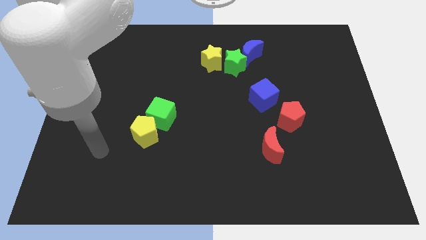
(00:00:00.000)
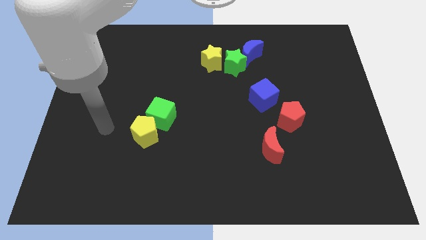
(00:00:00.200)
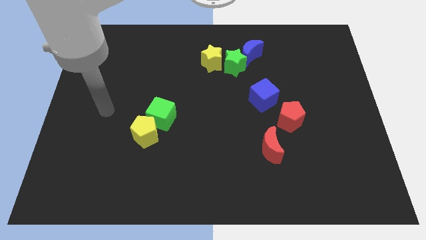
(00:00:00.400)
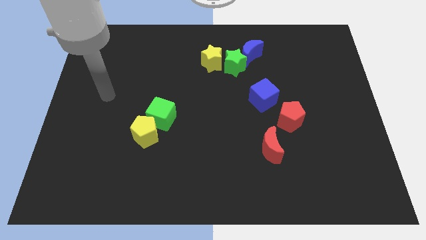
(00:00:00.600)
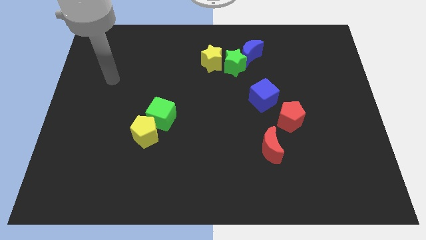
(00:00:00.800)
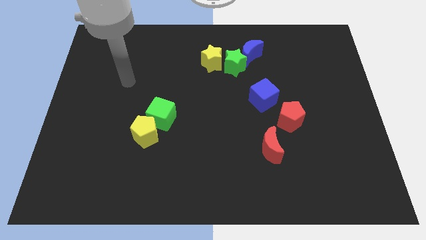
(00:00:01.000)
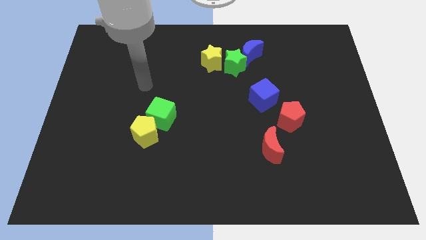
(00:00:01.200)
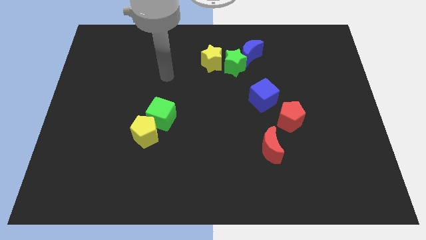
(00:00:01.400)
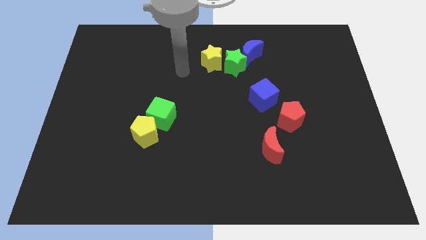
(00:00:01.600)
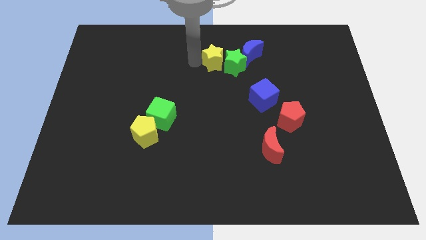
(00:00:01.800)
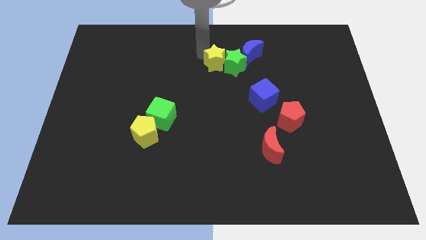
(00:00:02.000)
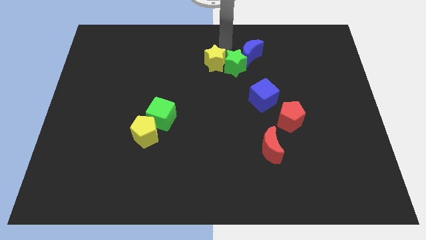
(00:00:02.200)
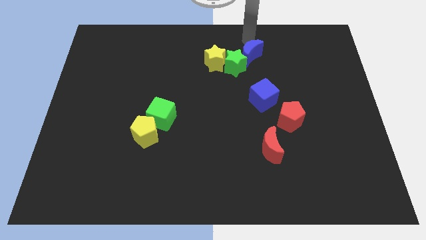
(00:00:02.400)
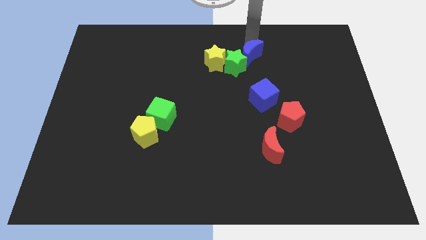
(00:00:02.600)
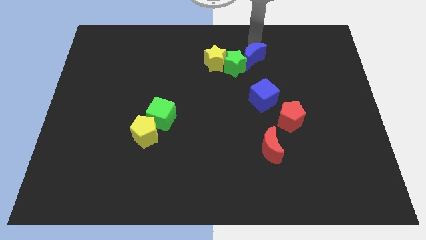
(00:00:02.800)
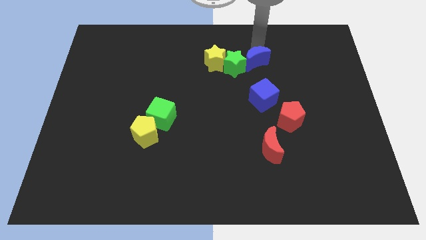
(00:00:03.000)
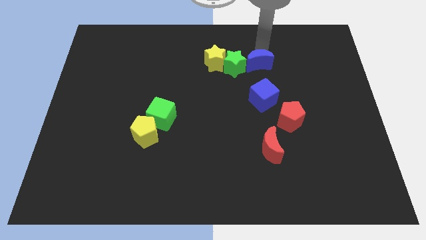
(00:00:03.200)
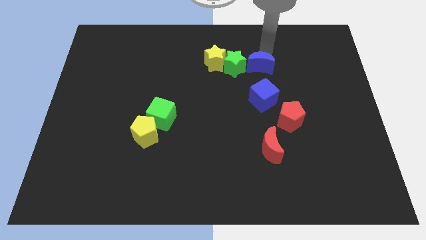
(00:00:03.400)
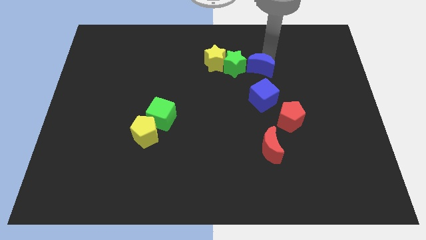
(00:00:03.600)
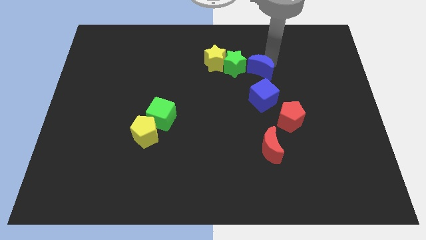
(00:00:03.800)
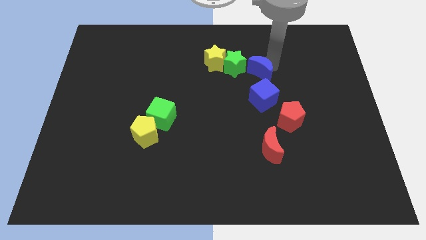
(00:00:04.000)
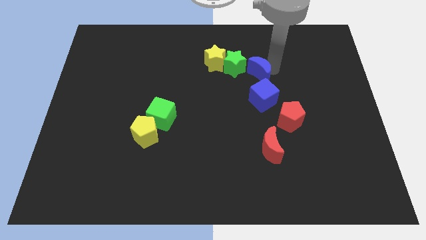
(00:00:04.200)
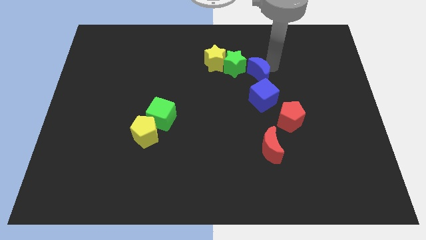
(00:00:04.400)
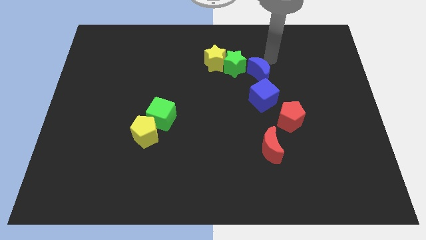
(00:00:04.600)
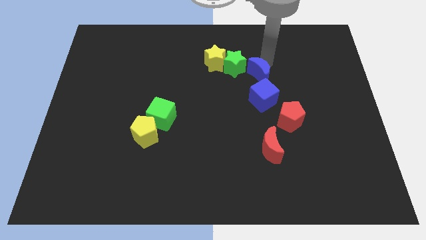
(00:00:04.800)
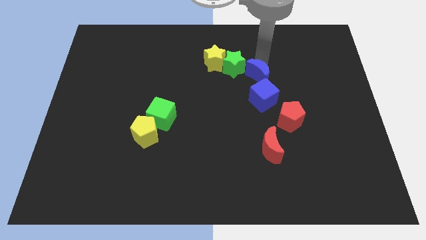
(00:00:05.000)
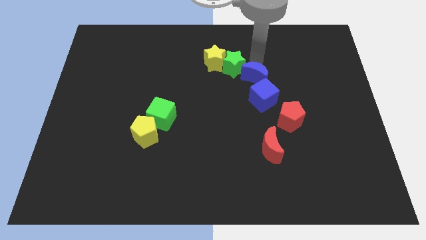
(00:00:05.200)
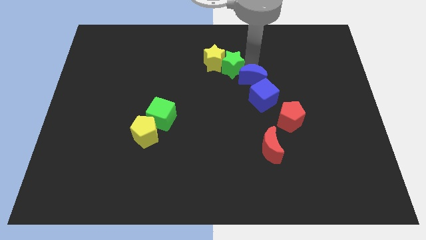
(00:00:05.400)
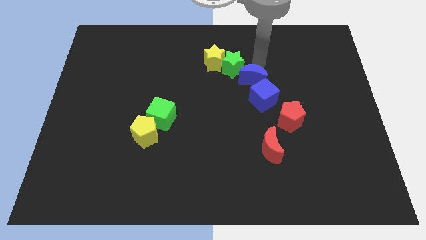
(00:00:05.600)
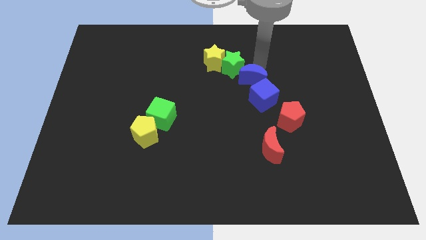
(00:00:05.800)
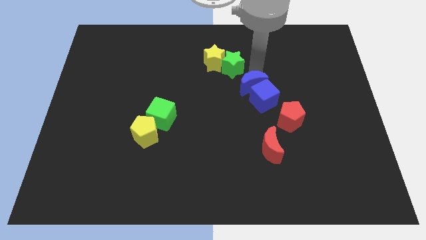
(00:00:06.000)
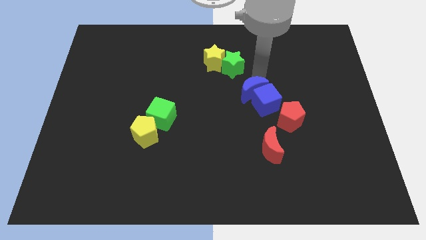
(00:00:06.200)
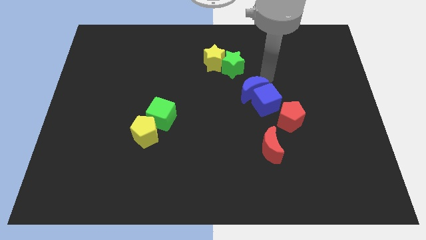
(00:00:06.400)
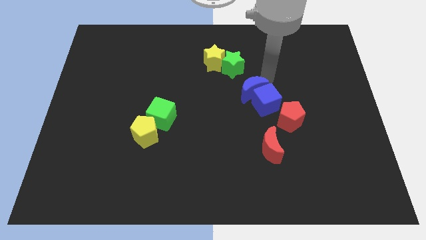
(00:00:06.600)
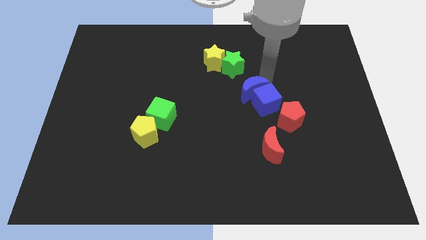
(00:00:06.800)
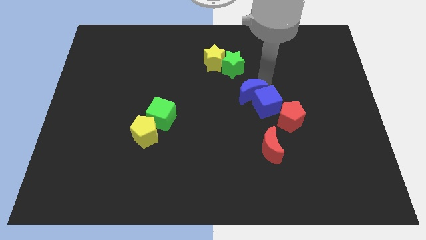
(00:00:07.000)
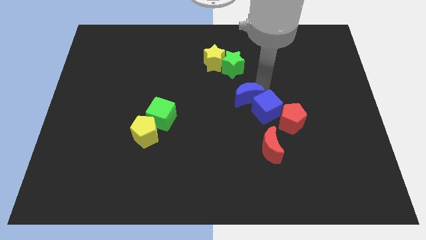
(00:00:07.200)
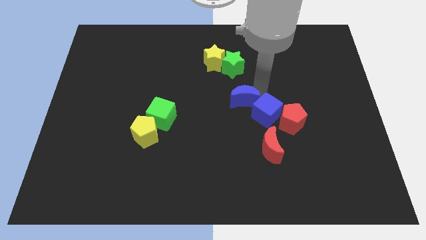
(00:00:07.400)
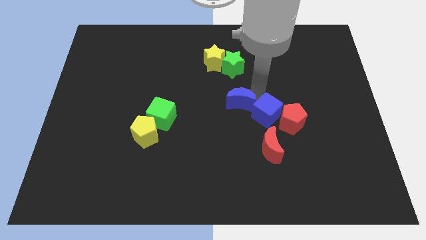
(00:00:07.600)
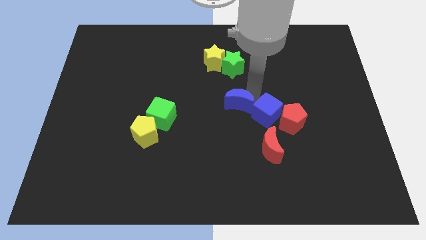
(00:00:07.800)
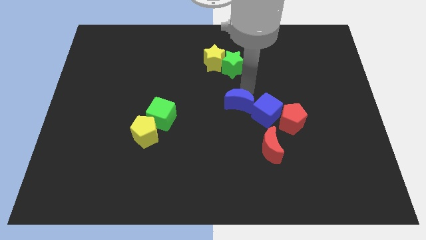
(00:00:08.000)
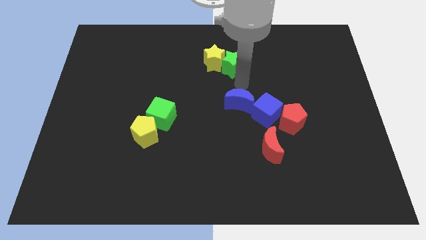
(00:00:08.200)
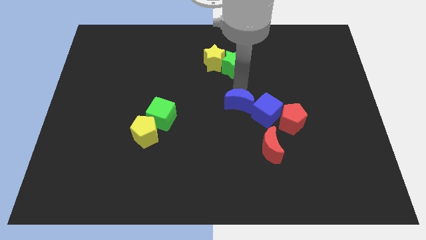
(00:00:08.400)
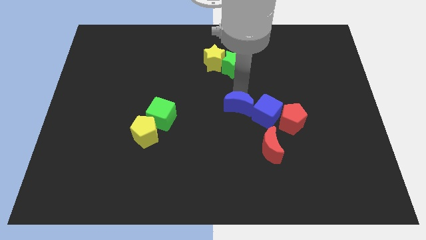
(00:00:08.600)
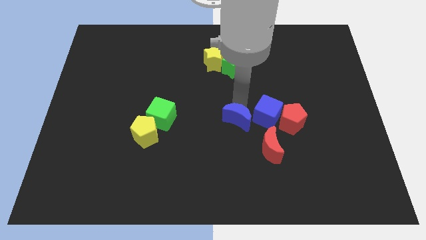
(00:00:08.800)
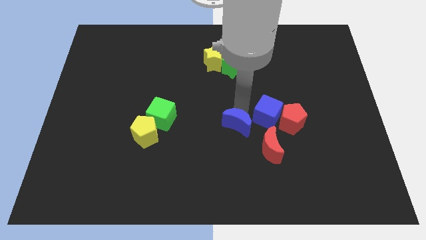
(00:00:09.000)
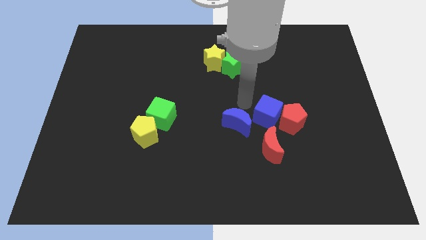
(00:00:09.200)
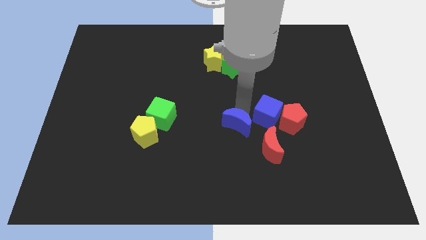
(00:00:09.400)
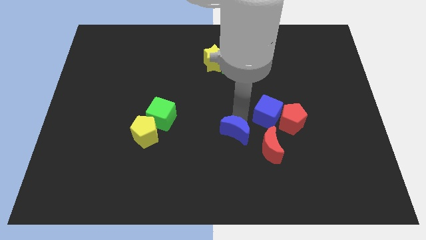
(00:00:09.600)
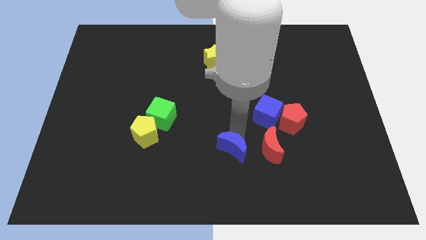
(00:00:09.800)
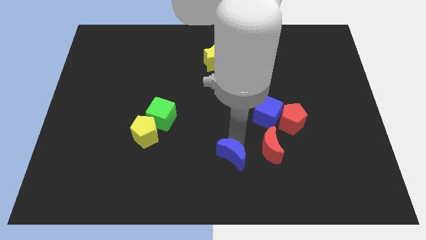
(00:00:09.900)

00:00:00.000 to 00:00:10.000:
push the blue moon to the bottom

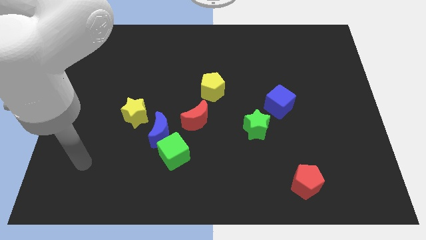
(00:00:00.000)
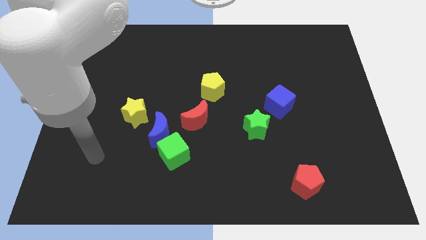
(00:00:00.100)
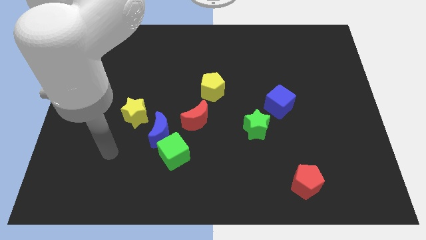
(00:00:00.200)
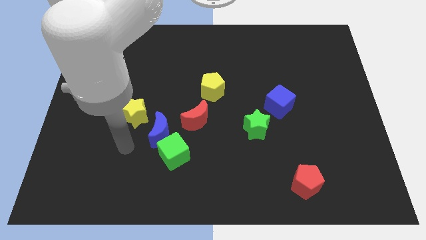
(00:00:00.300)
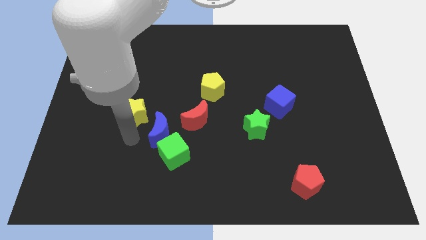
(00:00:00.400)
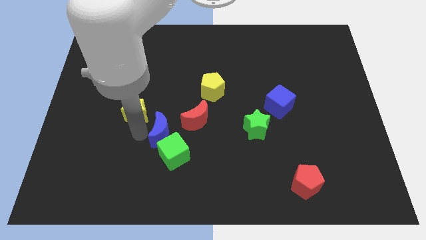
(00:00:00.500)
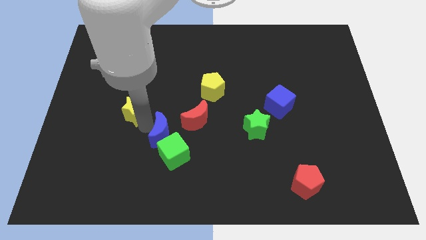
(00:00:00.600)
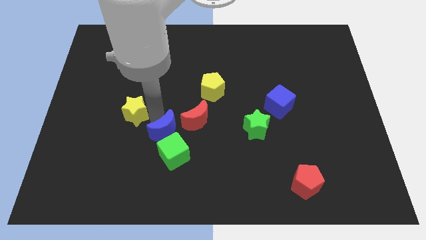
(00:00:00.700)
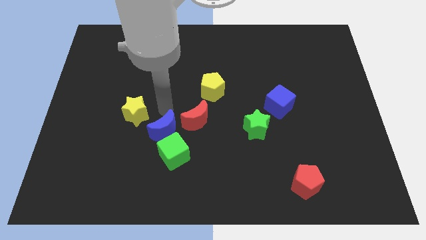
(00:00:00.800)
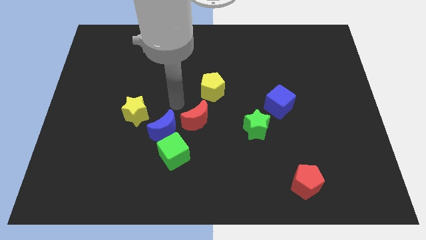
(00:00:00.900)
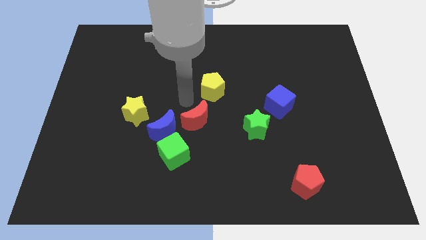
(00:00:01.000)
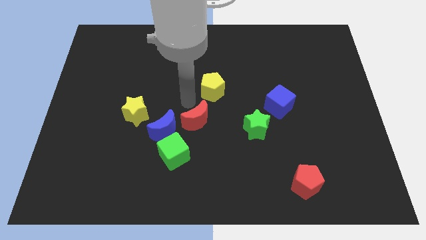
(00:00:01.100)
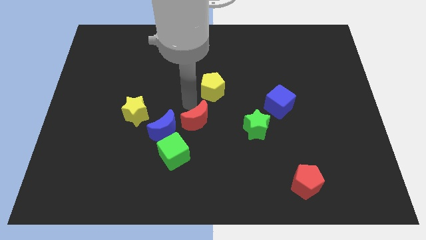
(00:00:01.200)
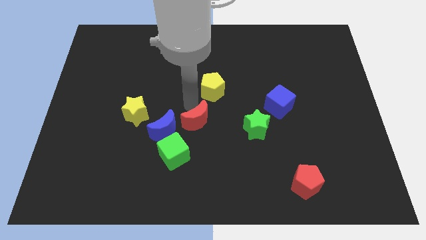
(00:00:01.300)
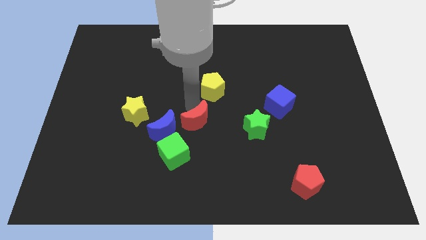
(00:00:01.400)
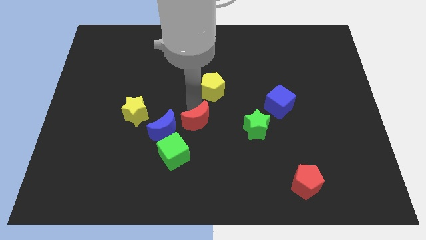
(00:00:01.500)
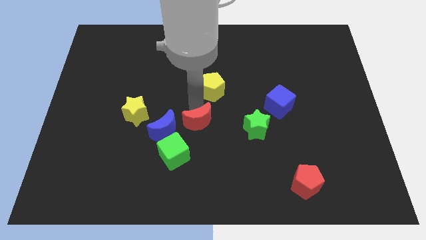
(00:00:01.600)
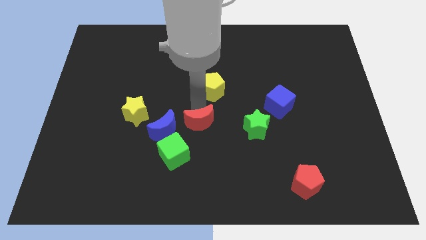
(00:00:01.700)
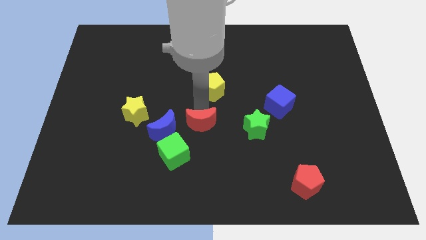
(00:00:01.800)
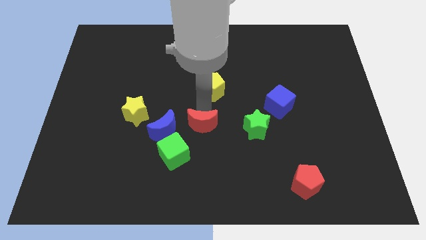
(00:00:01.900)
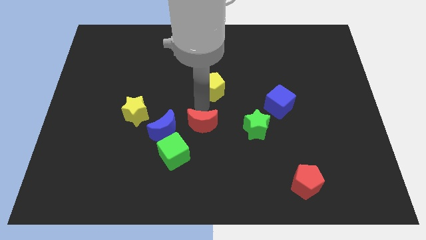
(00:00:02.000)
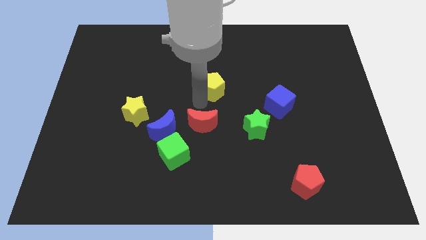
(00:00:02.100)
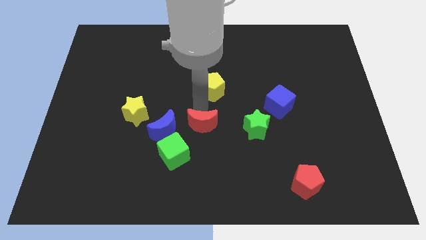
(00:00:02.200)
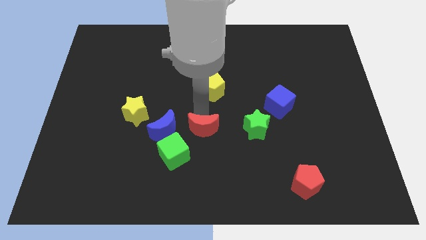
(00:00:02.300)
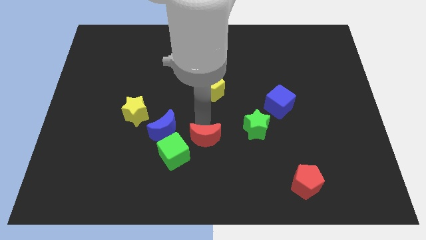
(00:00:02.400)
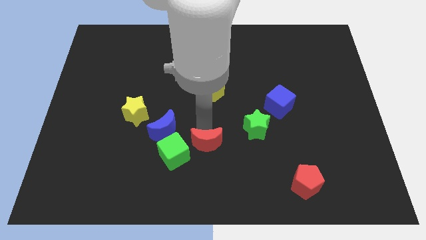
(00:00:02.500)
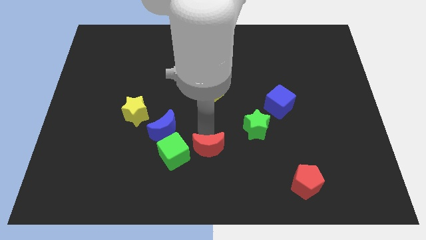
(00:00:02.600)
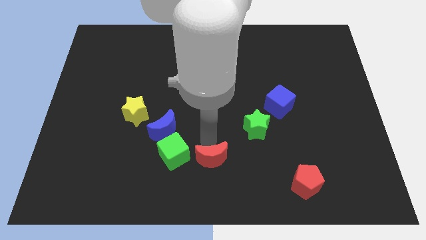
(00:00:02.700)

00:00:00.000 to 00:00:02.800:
slide the red moon to the bottom
